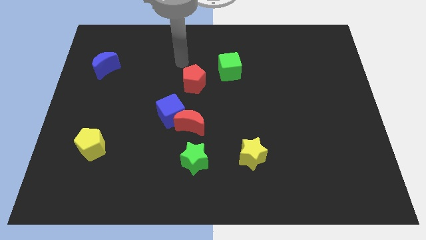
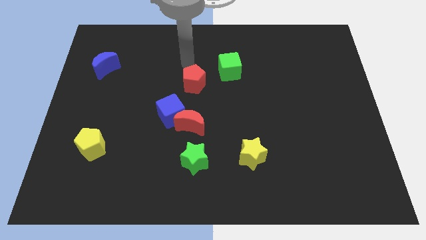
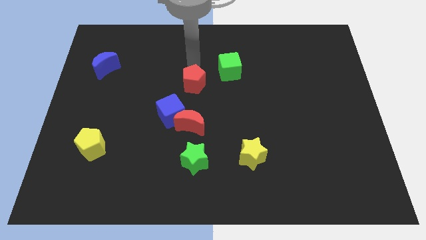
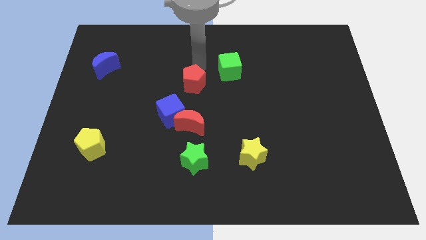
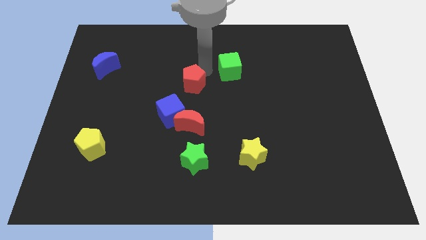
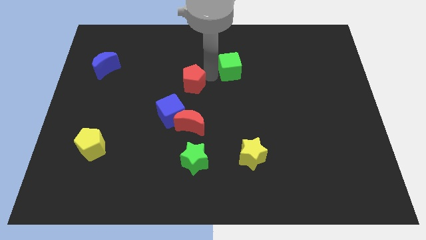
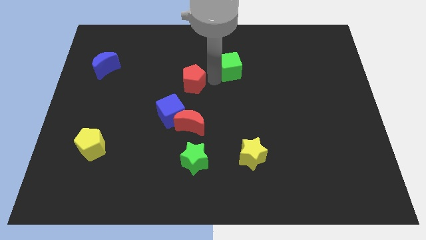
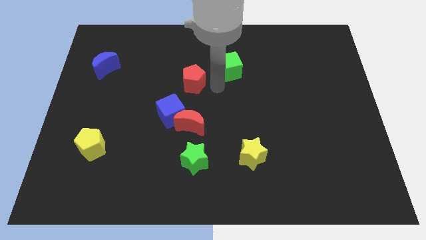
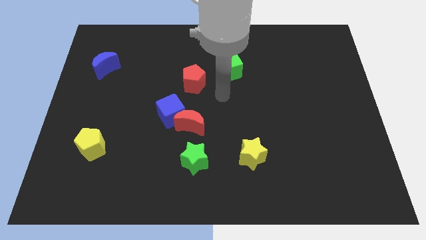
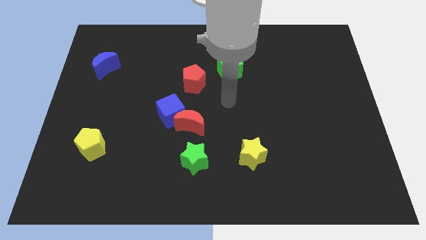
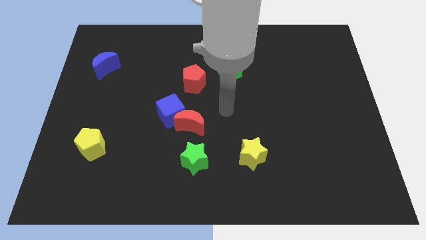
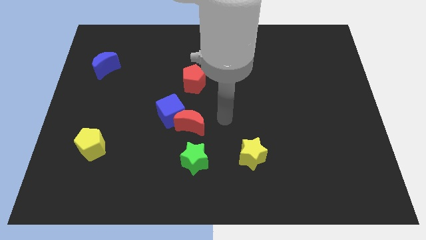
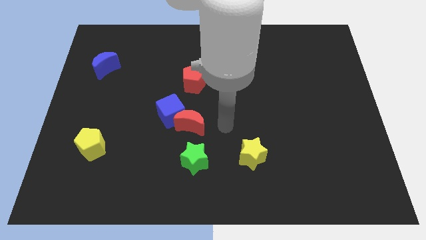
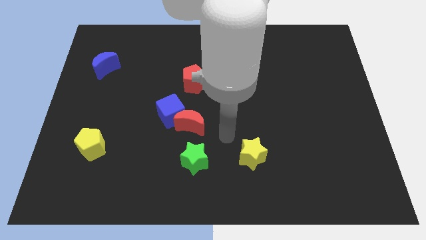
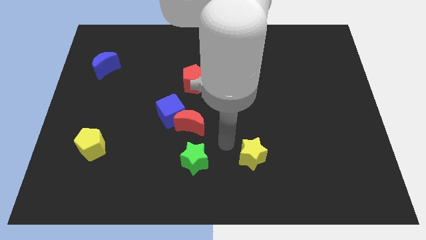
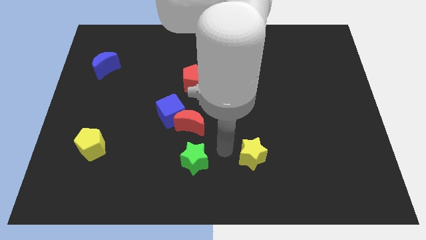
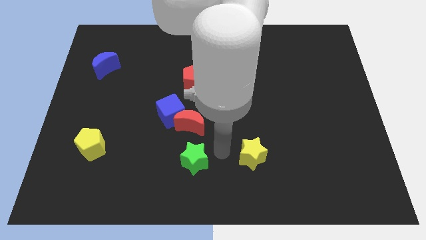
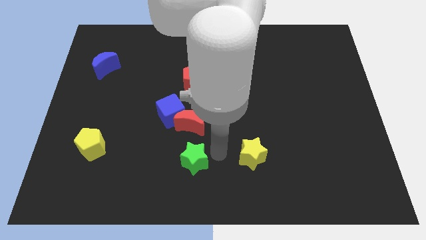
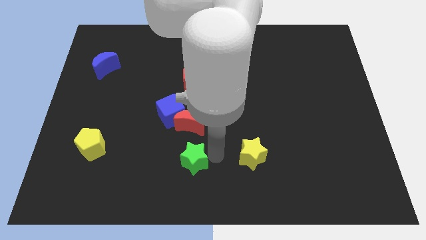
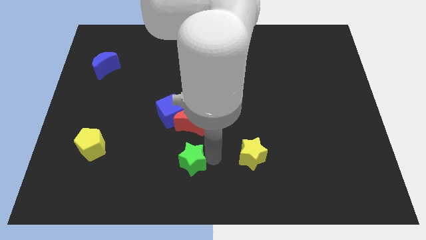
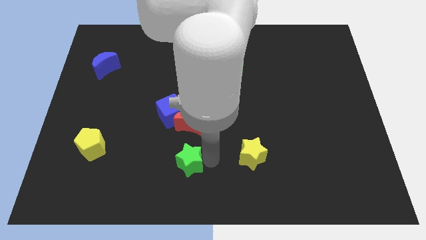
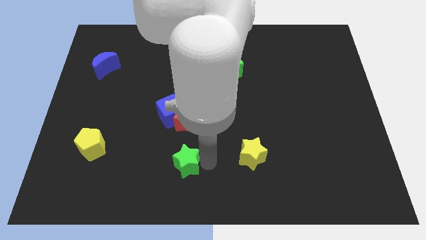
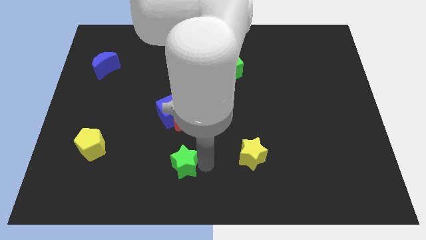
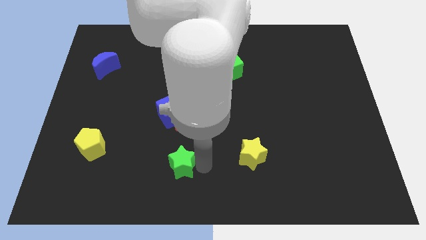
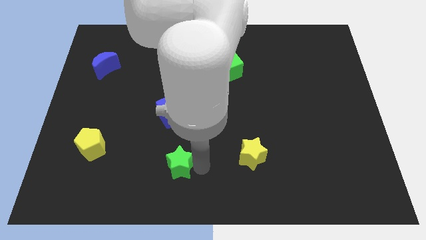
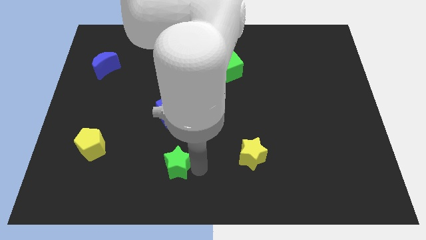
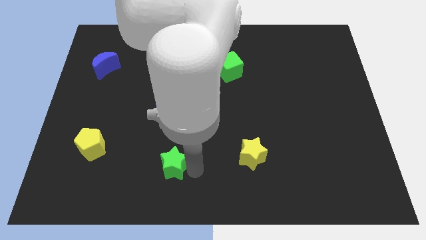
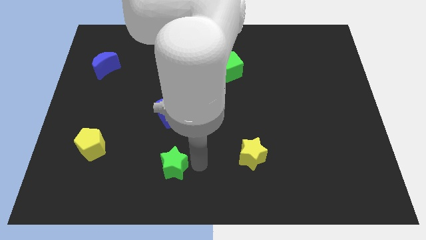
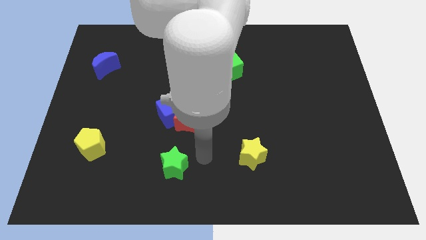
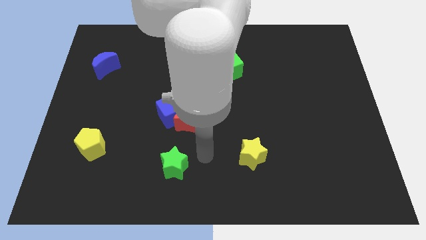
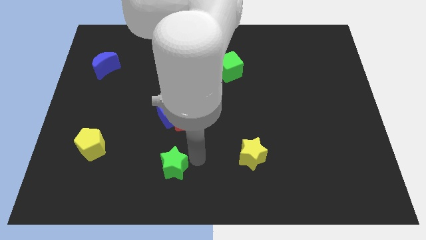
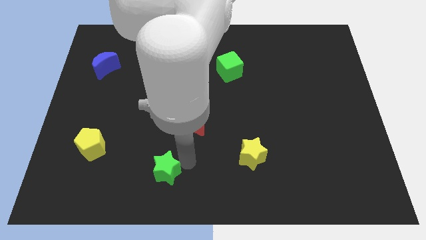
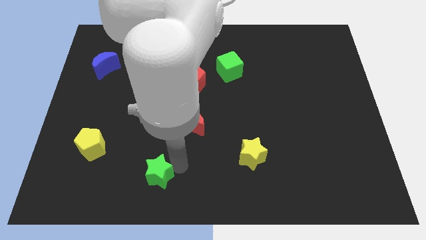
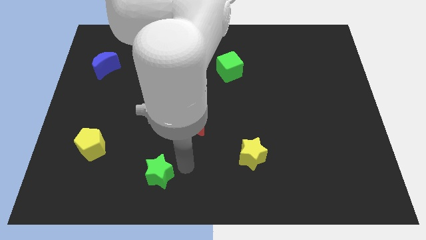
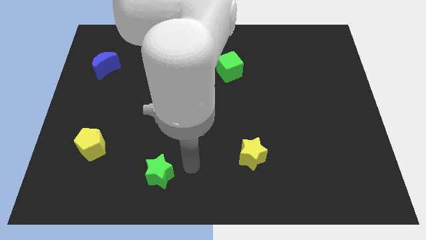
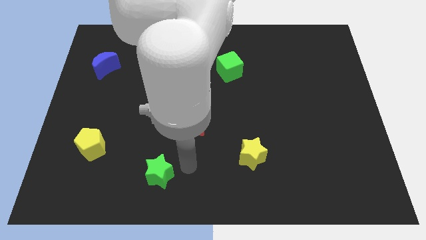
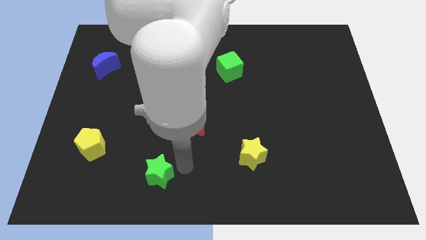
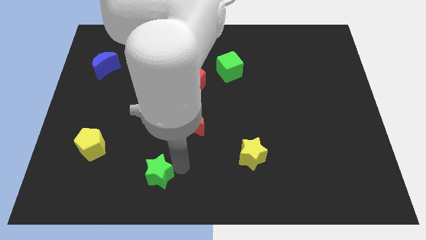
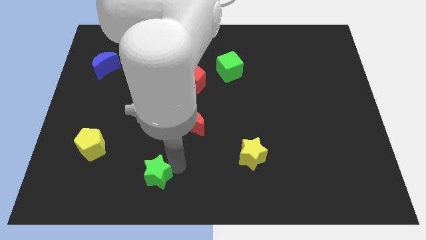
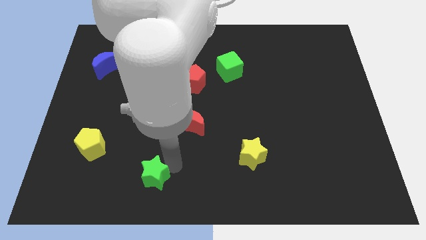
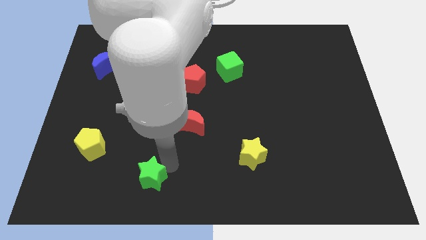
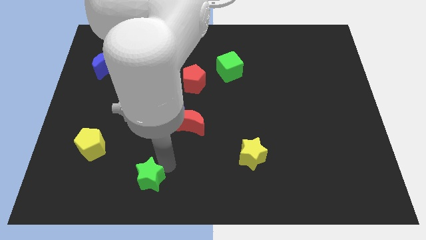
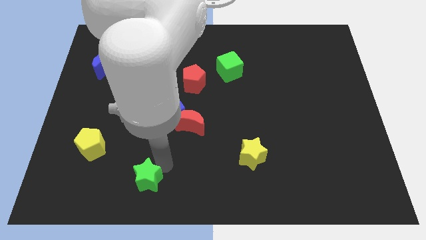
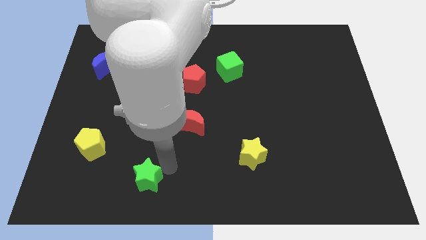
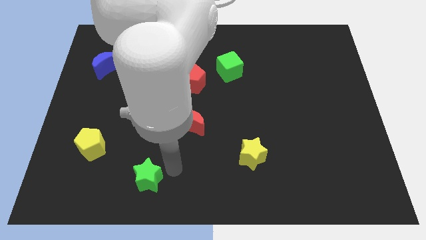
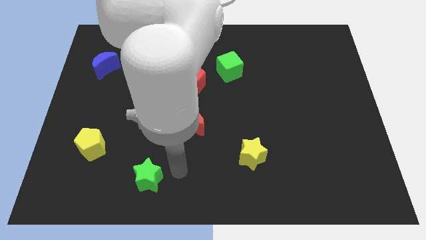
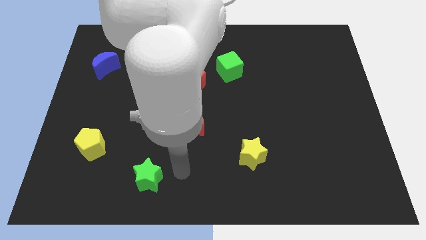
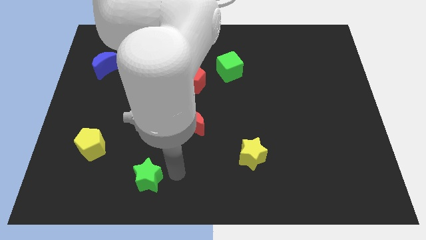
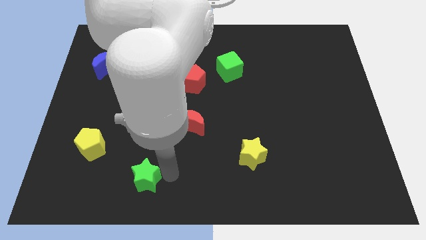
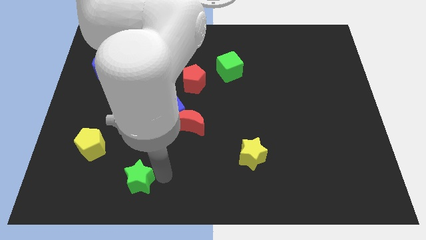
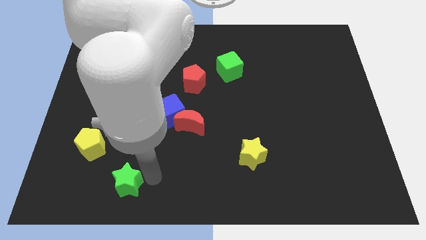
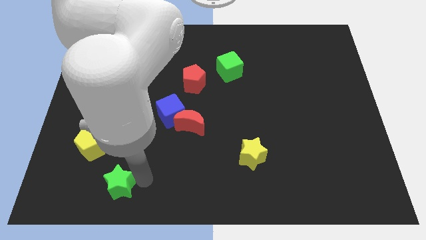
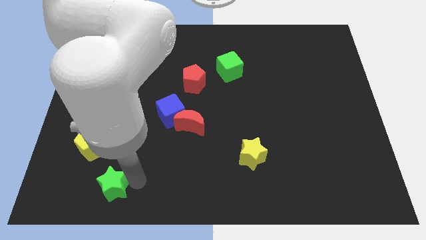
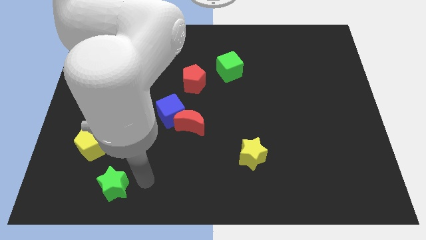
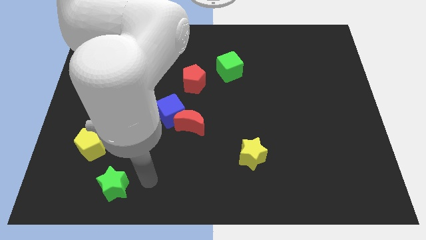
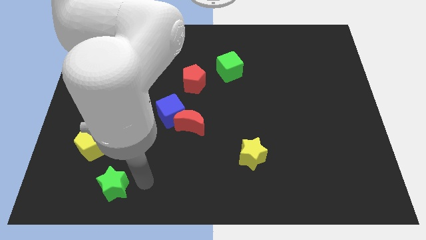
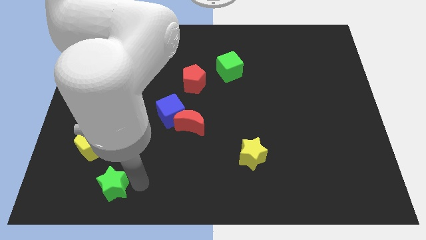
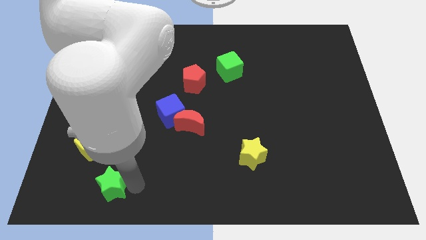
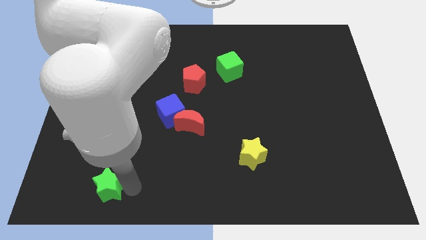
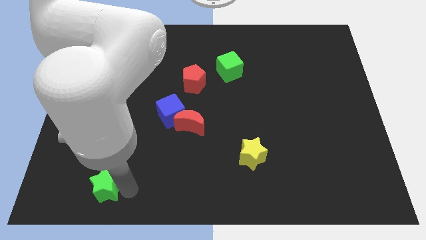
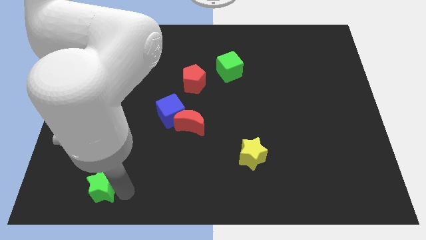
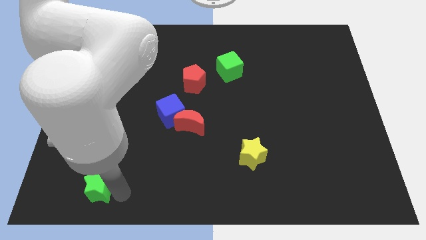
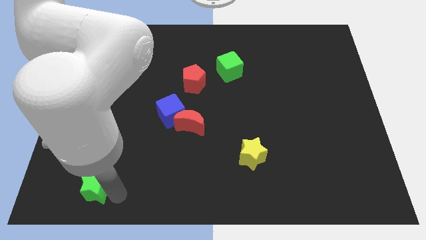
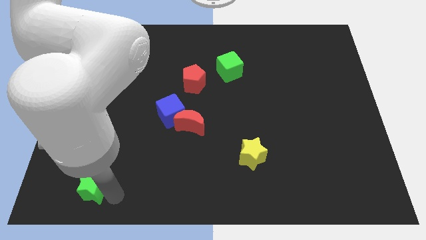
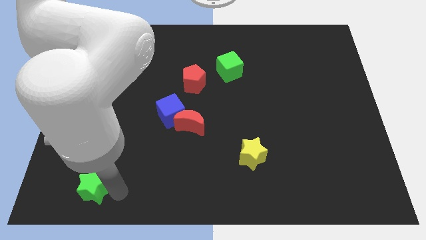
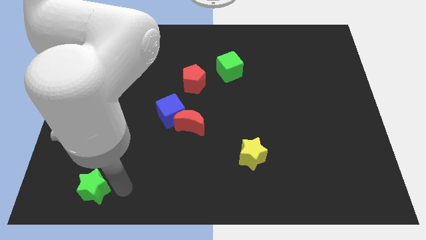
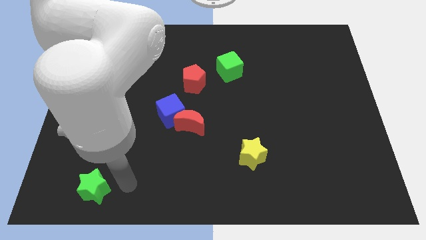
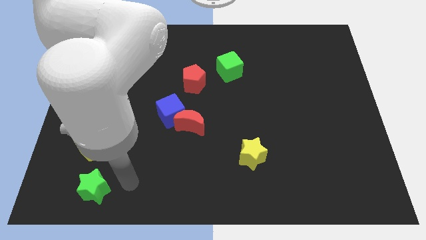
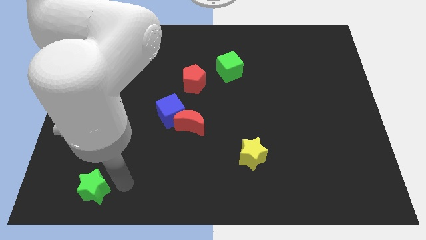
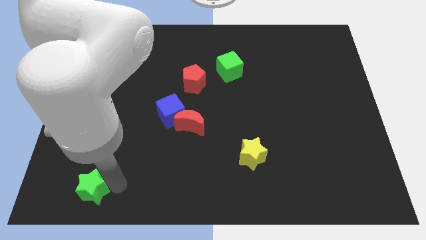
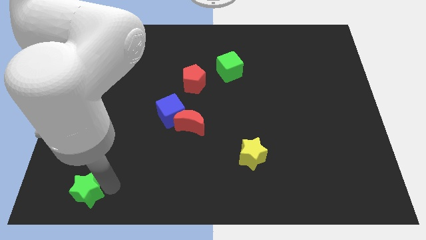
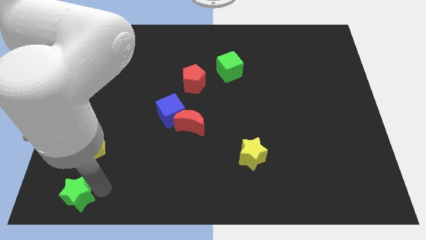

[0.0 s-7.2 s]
slide the green star to the bottom left of the board

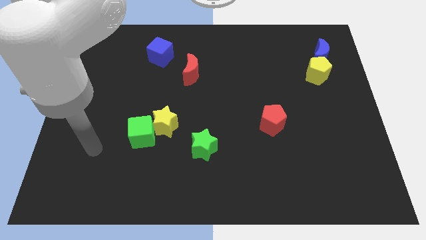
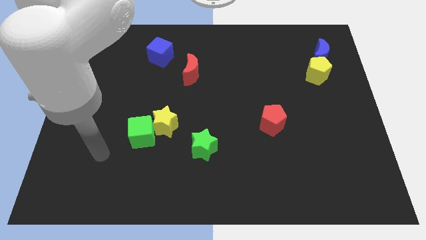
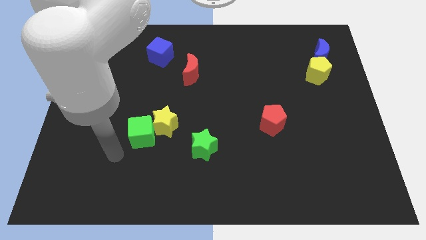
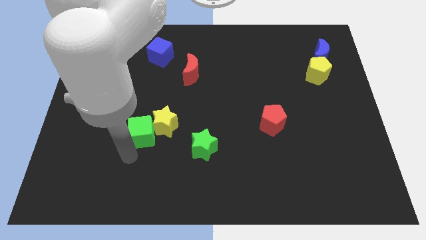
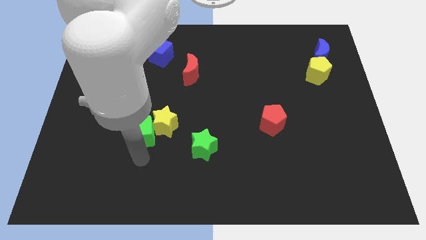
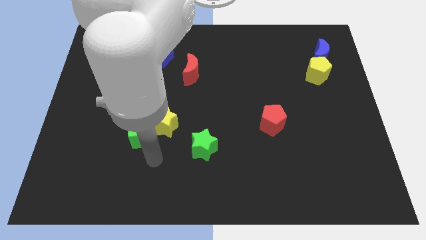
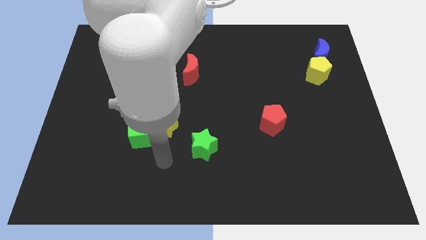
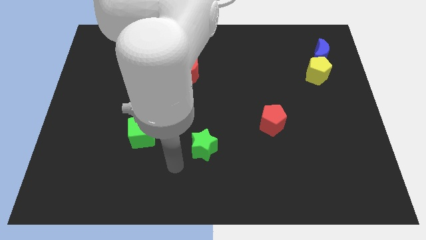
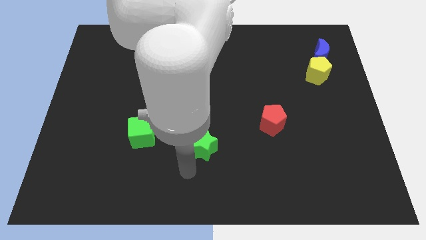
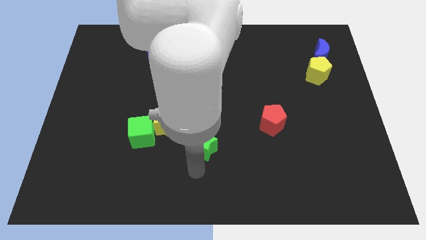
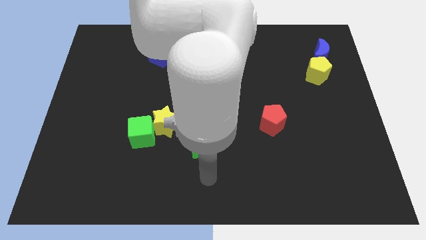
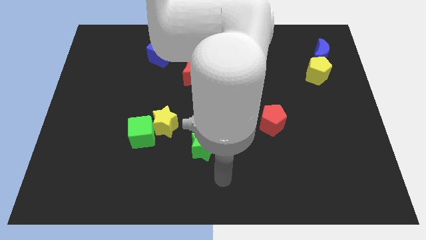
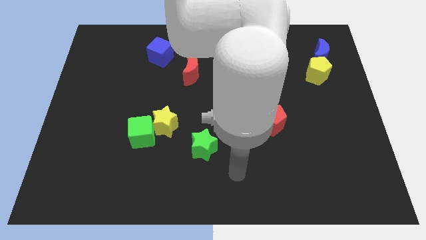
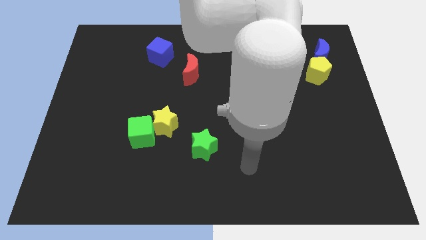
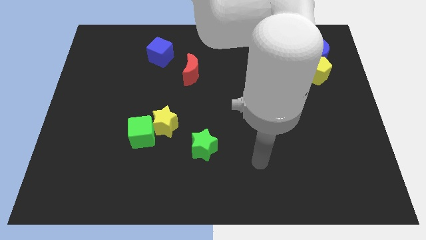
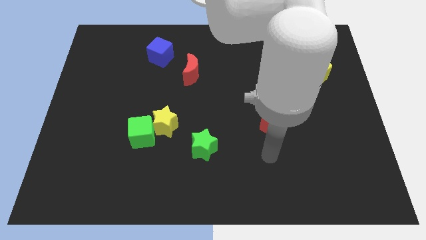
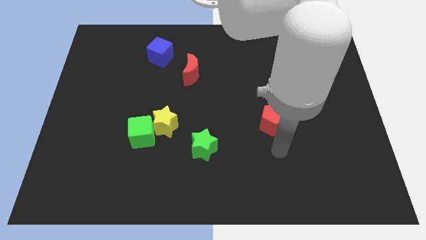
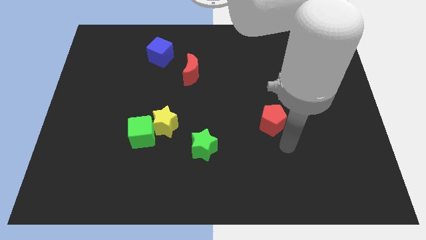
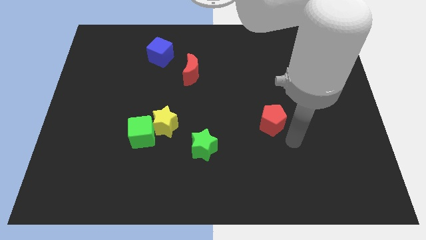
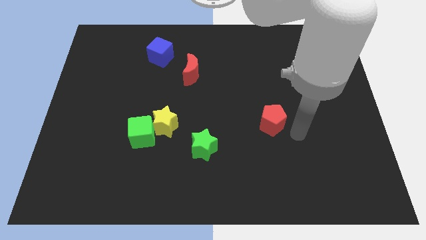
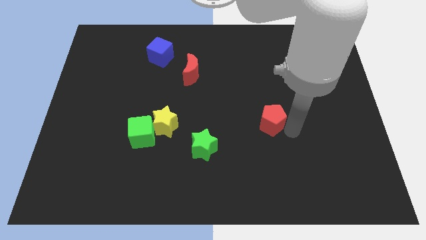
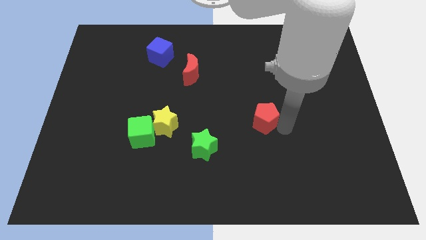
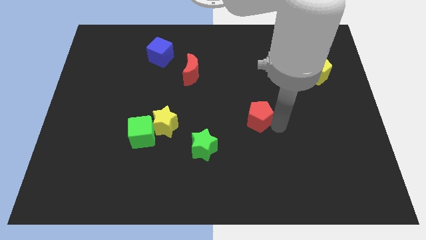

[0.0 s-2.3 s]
move the red pentagon to the middle of the board
